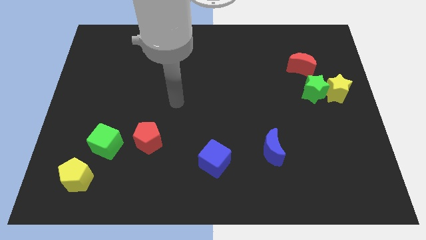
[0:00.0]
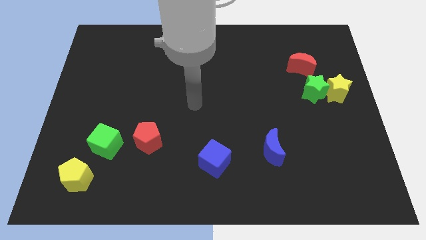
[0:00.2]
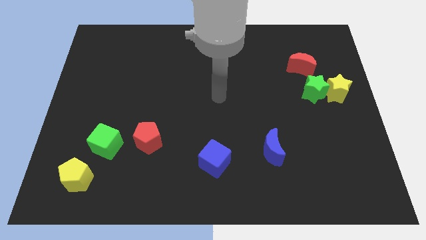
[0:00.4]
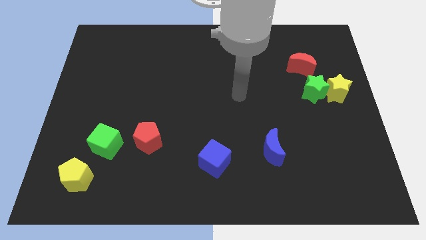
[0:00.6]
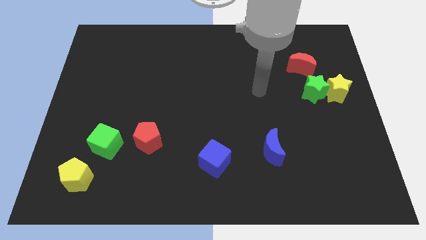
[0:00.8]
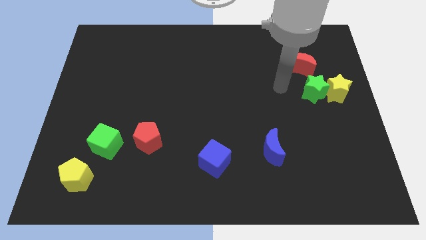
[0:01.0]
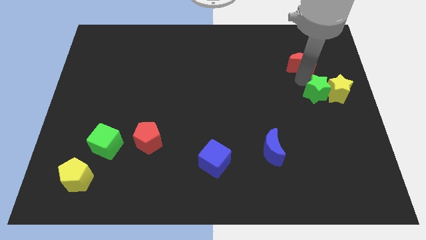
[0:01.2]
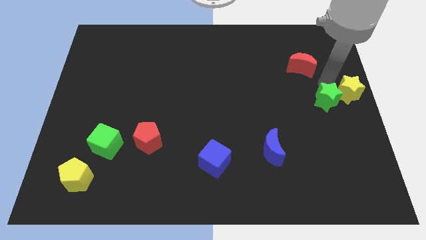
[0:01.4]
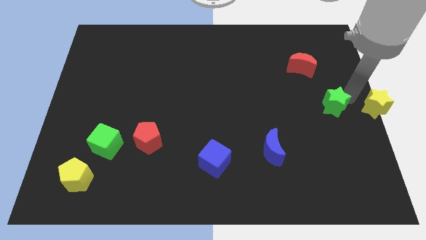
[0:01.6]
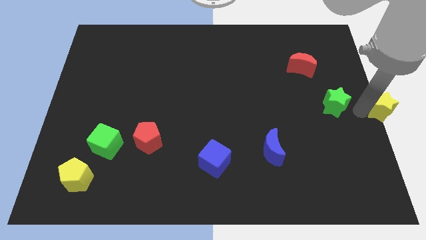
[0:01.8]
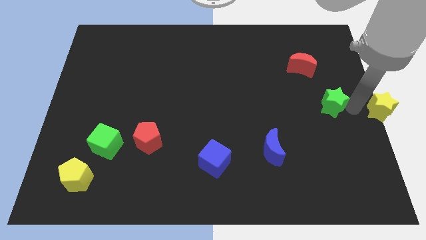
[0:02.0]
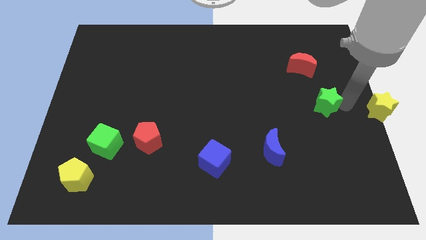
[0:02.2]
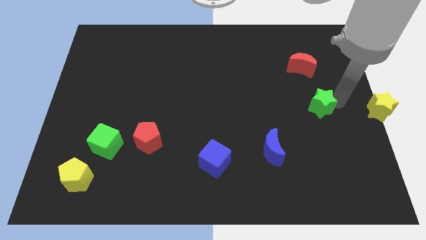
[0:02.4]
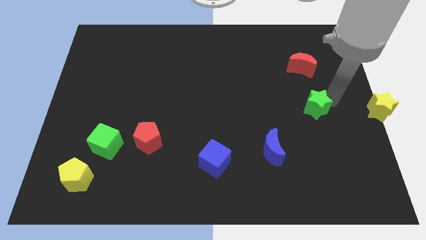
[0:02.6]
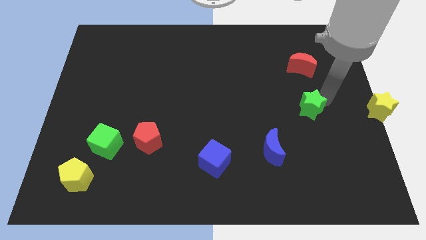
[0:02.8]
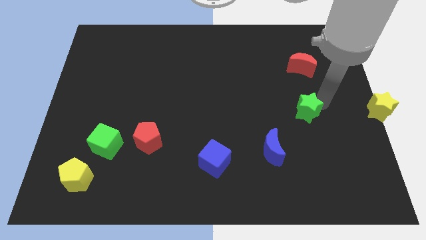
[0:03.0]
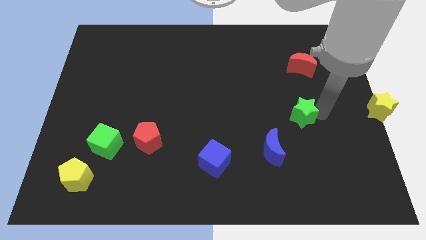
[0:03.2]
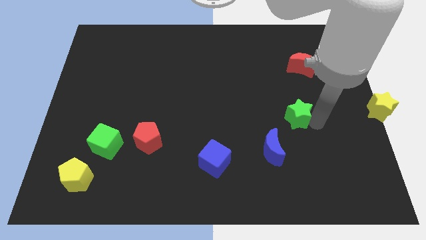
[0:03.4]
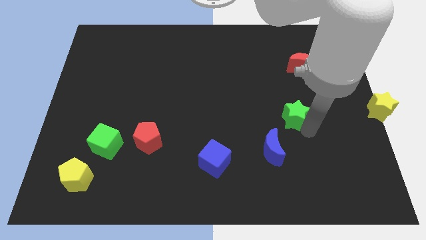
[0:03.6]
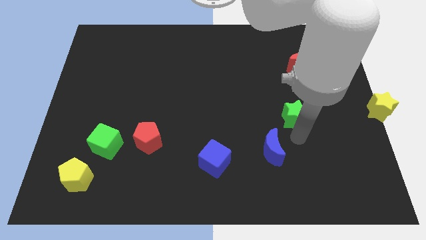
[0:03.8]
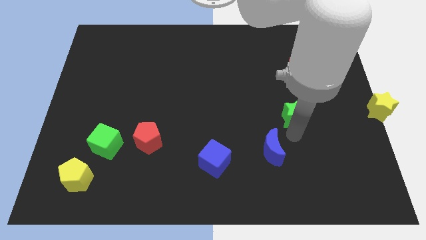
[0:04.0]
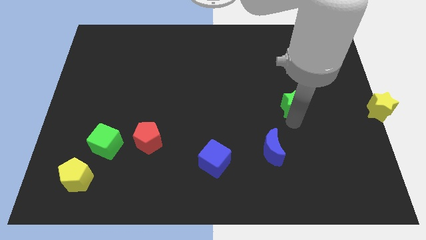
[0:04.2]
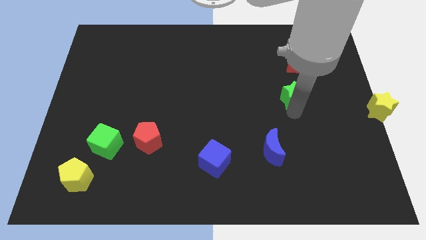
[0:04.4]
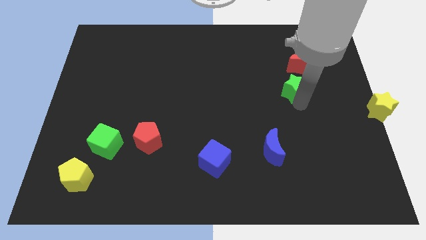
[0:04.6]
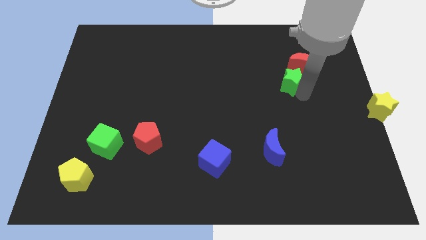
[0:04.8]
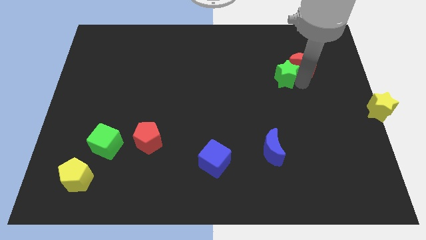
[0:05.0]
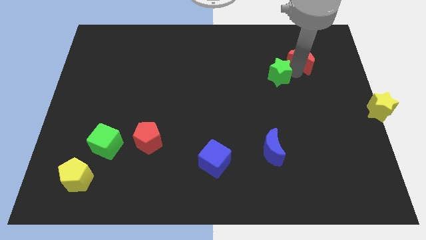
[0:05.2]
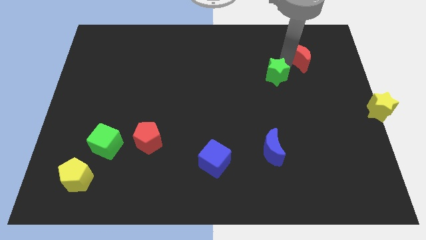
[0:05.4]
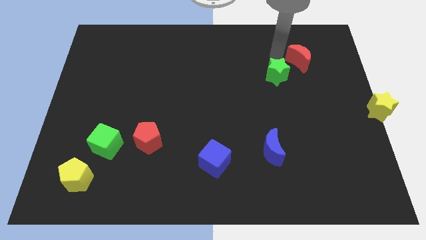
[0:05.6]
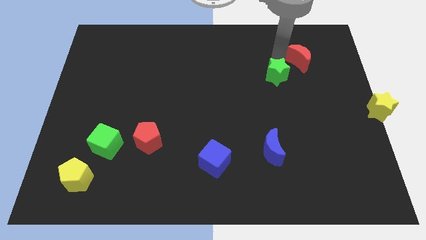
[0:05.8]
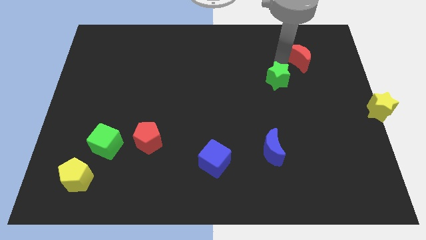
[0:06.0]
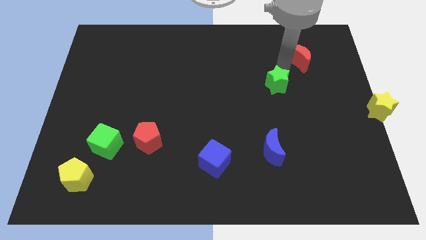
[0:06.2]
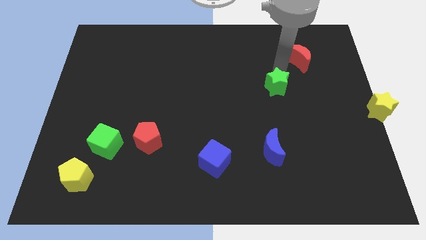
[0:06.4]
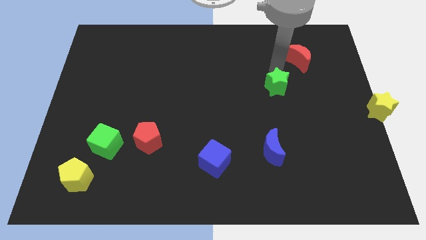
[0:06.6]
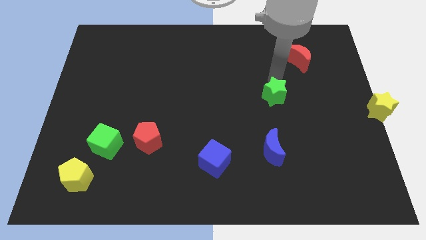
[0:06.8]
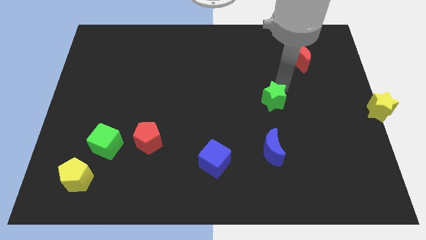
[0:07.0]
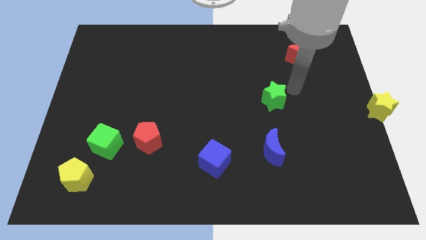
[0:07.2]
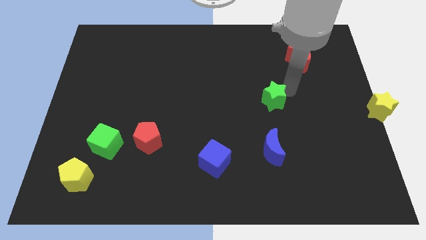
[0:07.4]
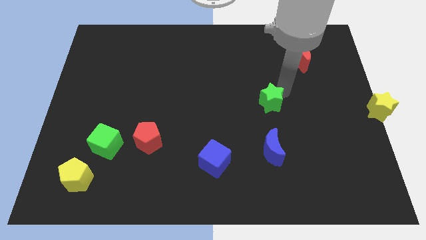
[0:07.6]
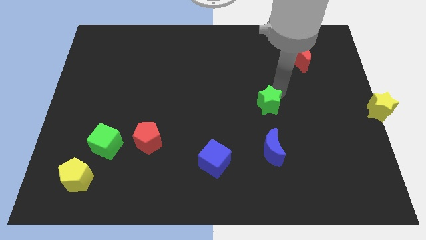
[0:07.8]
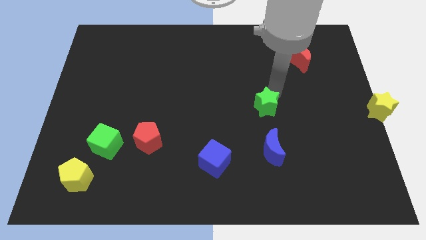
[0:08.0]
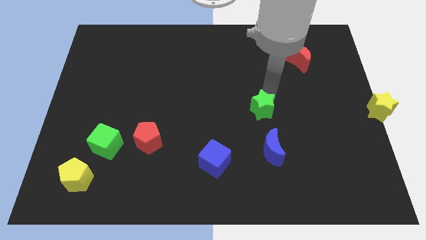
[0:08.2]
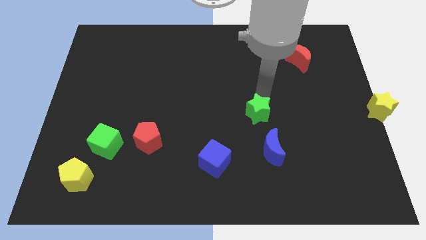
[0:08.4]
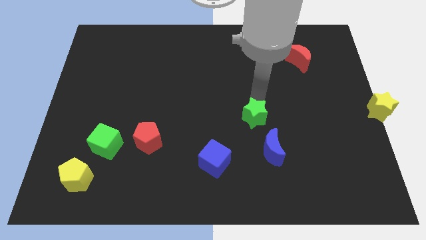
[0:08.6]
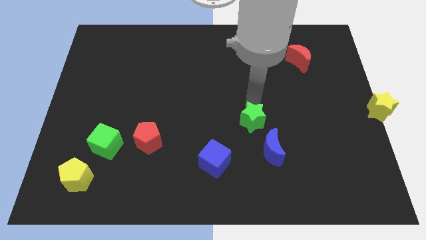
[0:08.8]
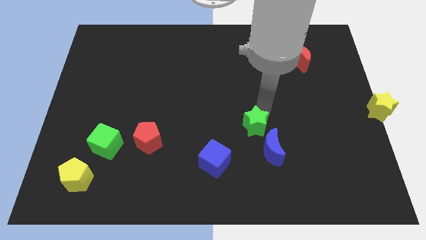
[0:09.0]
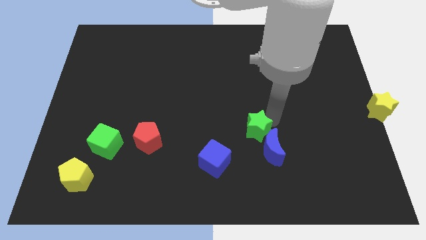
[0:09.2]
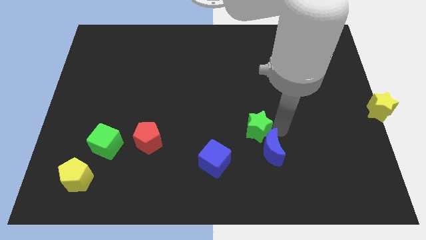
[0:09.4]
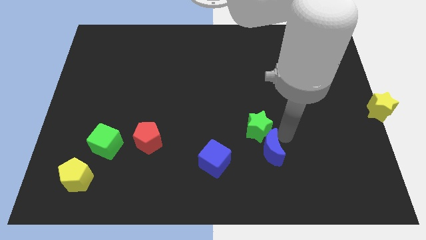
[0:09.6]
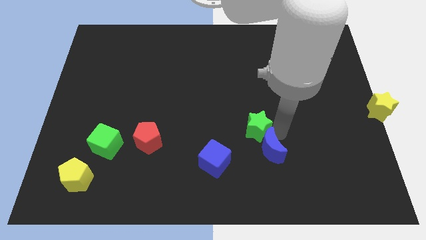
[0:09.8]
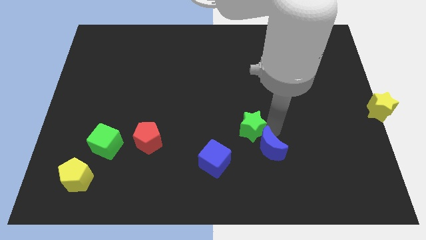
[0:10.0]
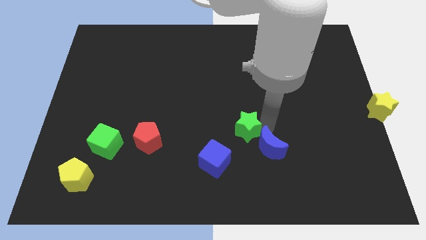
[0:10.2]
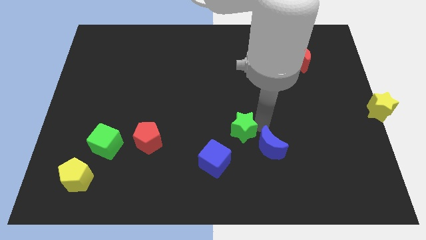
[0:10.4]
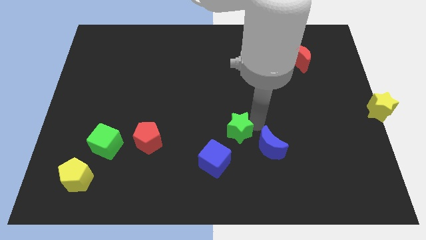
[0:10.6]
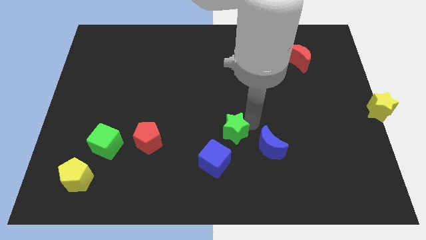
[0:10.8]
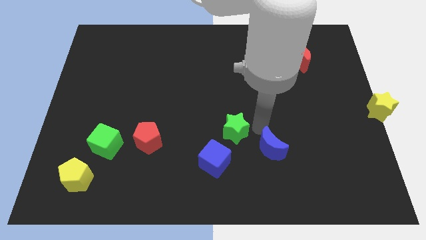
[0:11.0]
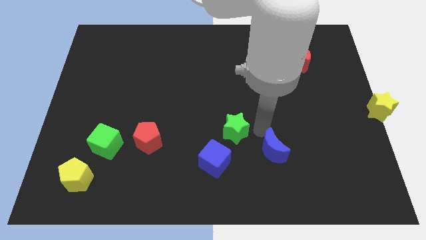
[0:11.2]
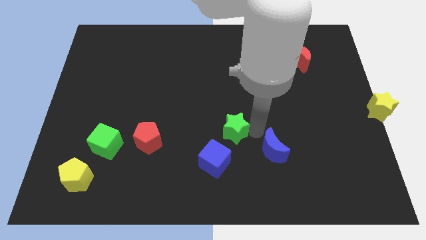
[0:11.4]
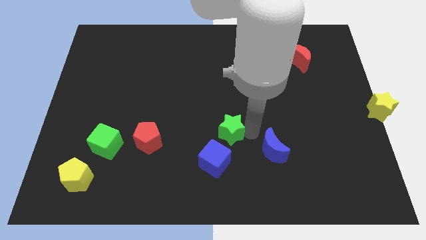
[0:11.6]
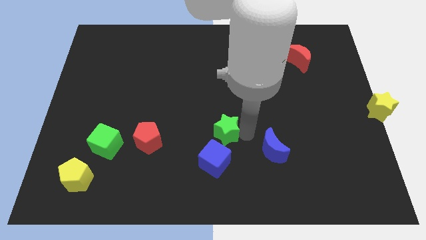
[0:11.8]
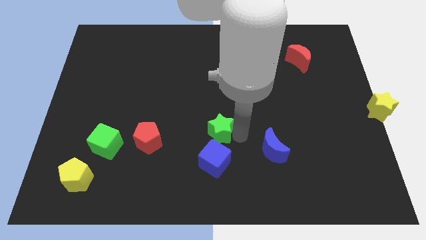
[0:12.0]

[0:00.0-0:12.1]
put the green star to the right of the red pentagon
